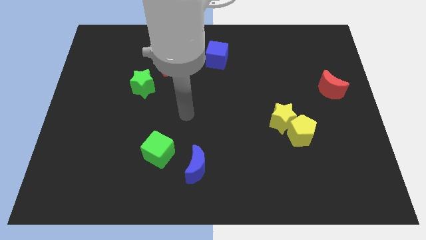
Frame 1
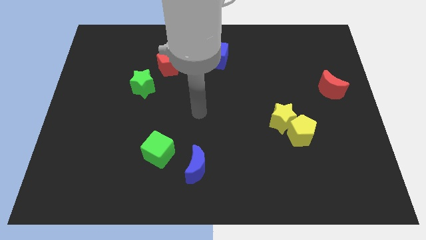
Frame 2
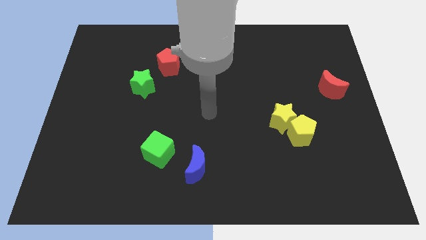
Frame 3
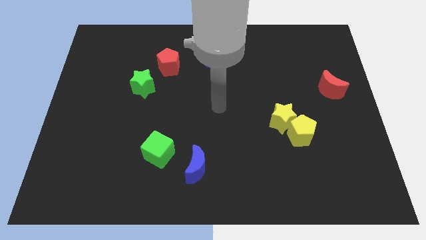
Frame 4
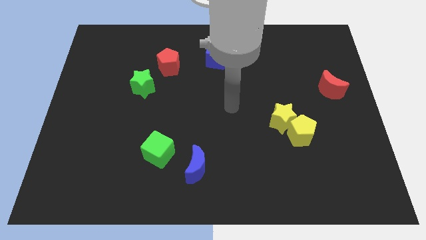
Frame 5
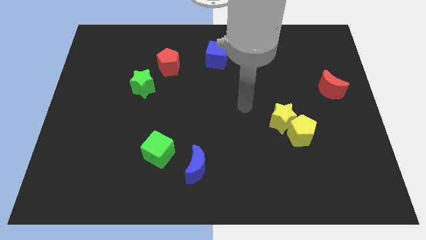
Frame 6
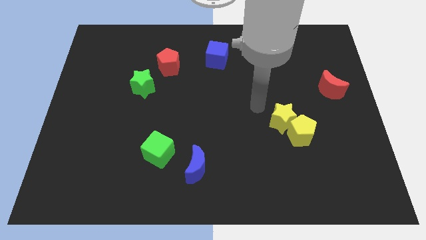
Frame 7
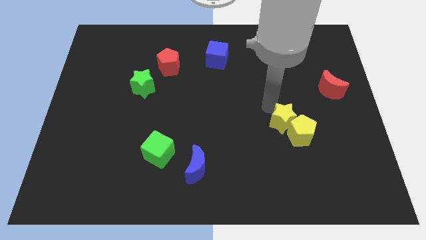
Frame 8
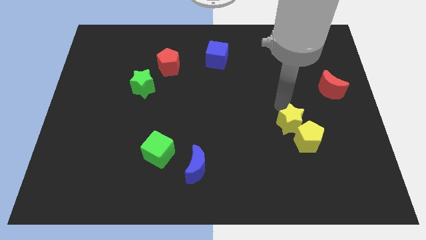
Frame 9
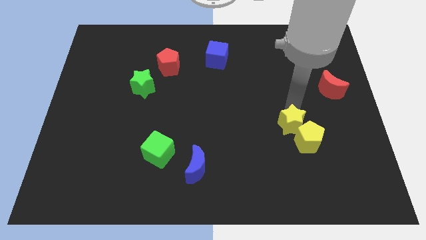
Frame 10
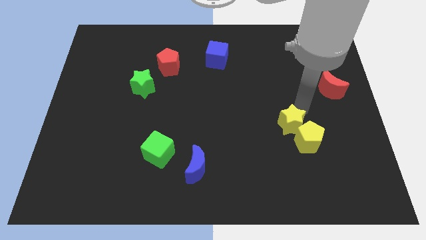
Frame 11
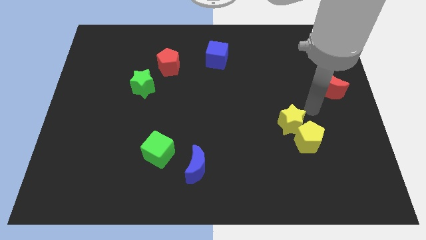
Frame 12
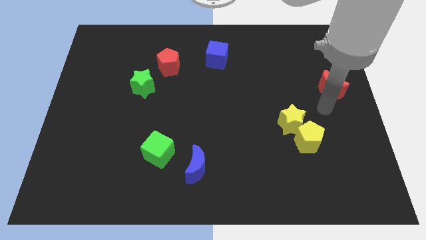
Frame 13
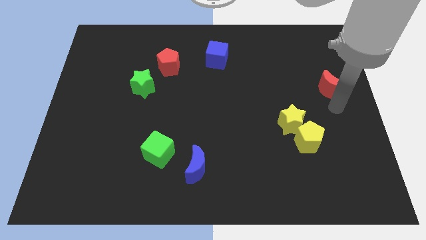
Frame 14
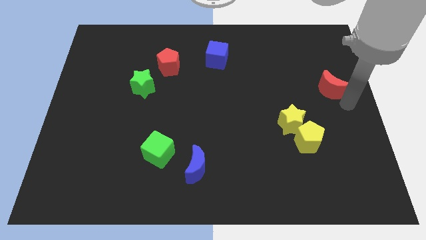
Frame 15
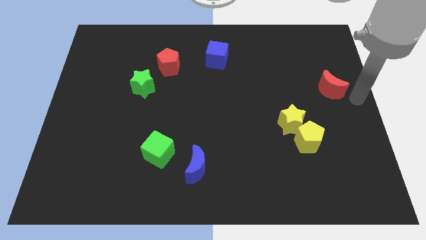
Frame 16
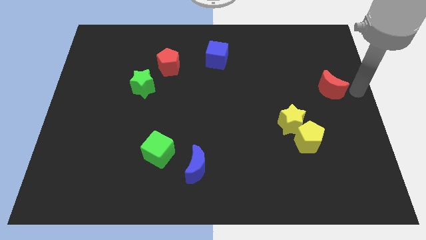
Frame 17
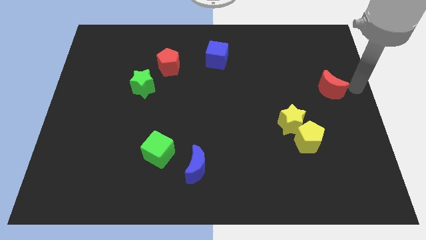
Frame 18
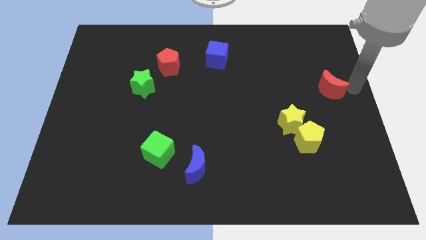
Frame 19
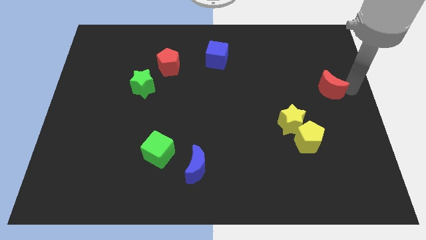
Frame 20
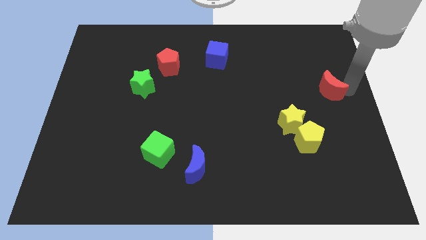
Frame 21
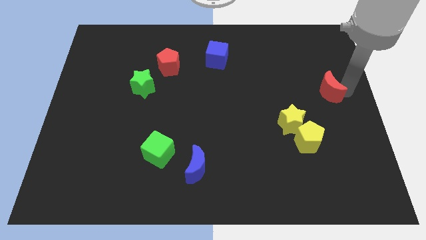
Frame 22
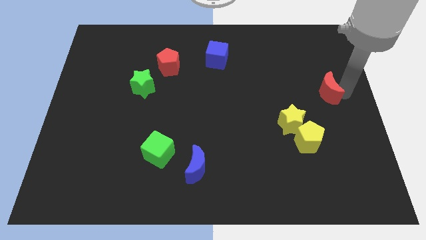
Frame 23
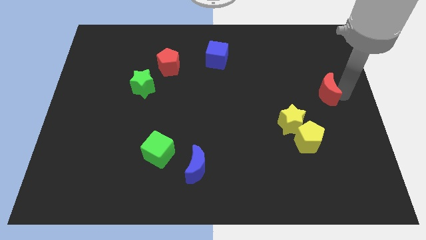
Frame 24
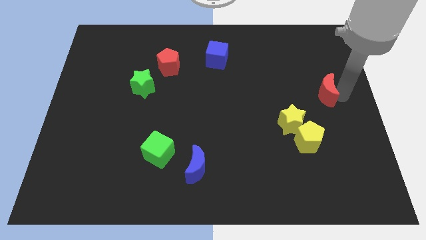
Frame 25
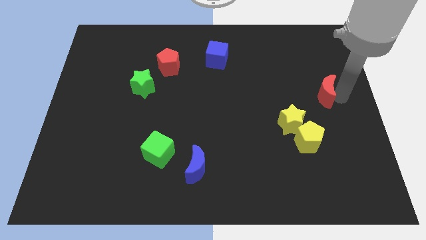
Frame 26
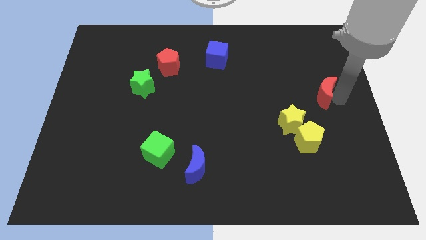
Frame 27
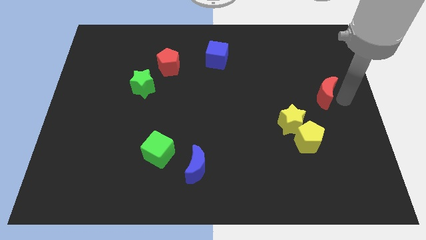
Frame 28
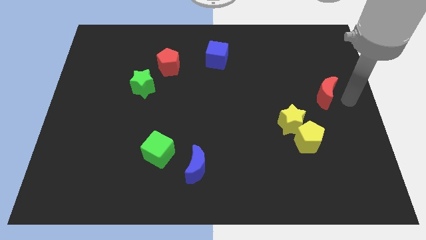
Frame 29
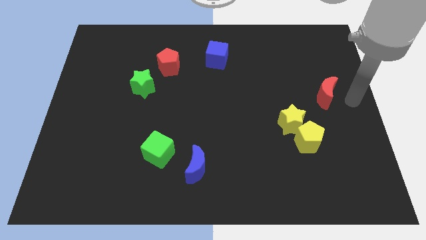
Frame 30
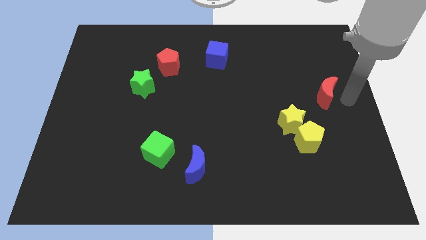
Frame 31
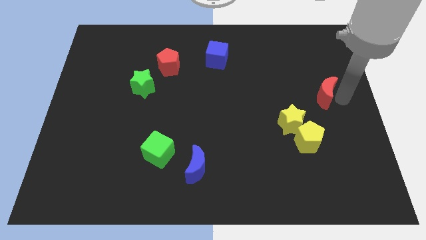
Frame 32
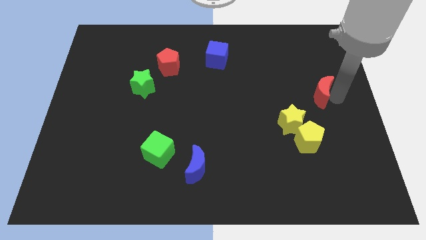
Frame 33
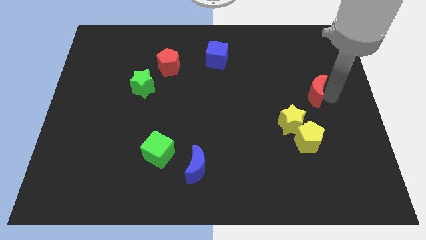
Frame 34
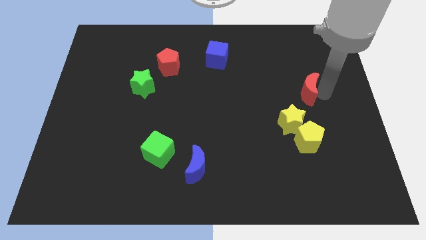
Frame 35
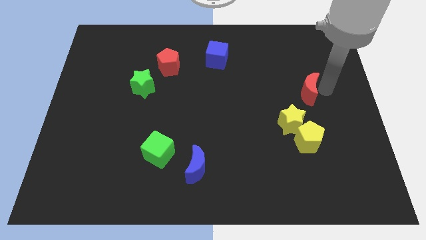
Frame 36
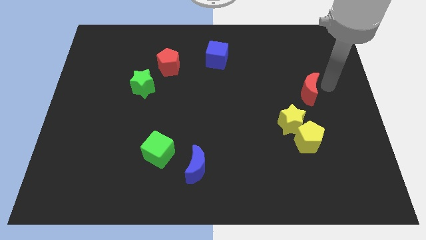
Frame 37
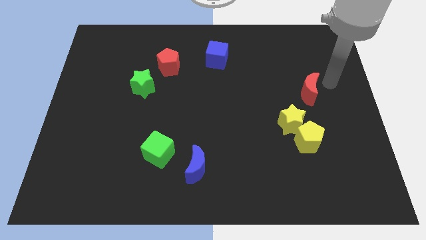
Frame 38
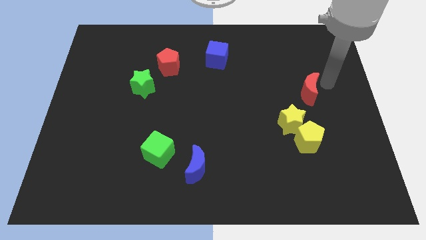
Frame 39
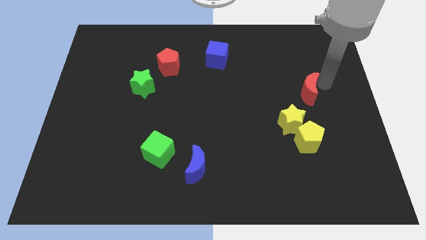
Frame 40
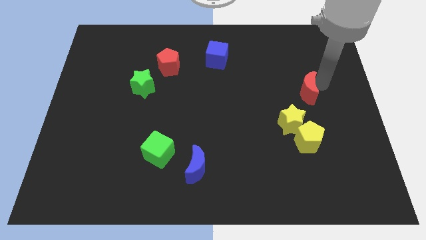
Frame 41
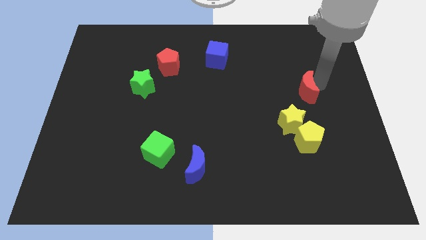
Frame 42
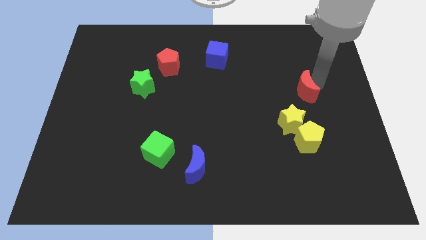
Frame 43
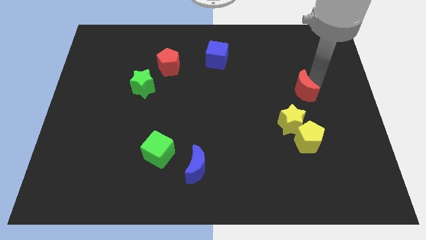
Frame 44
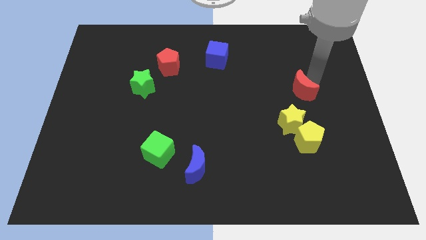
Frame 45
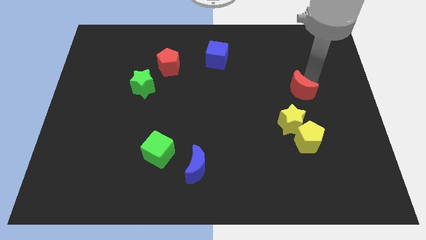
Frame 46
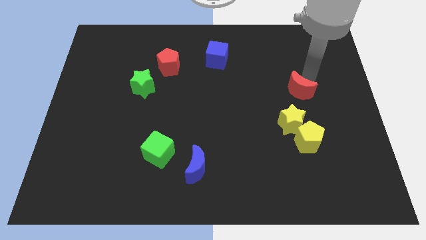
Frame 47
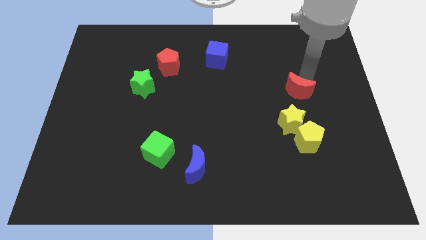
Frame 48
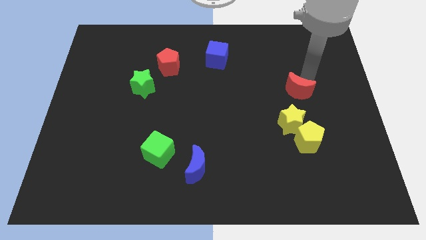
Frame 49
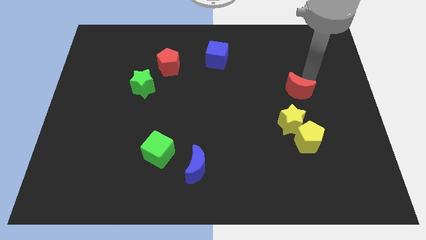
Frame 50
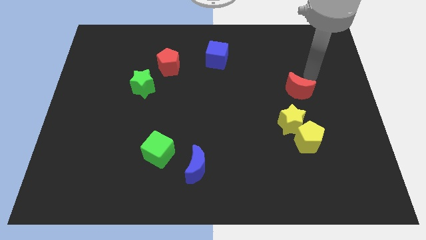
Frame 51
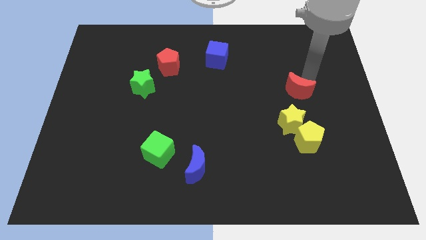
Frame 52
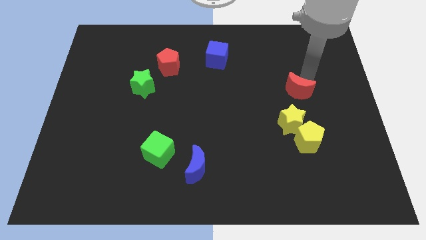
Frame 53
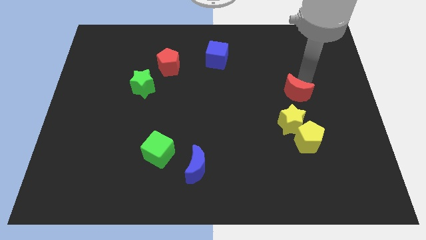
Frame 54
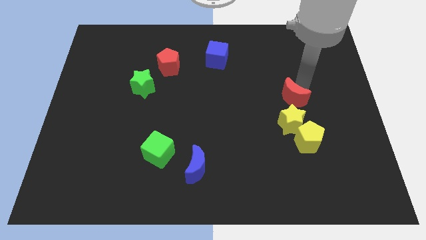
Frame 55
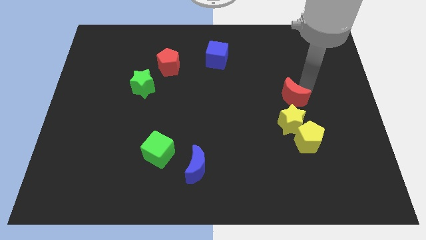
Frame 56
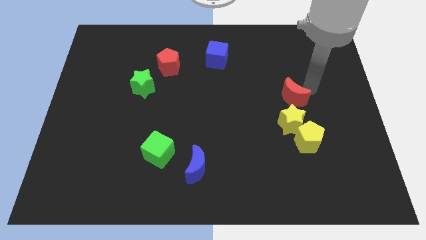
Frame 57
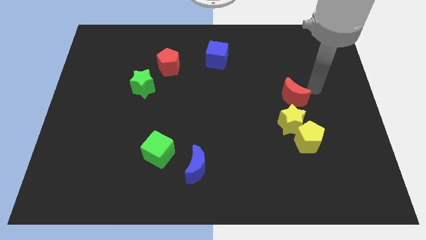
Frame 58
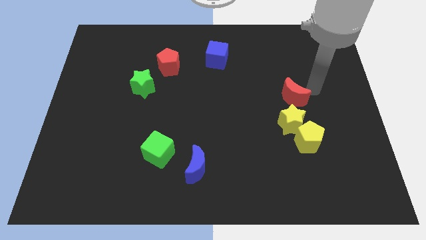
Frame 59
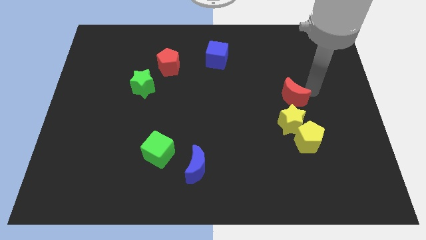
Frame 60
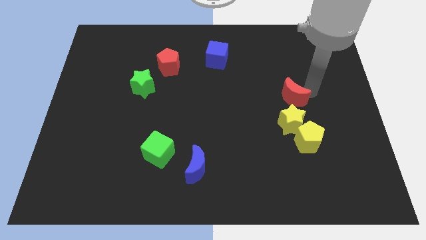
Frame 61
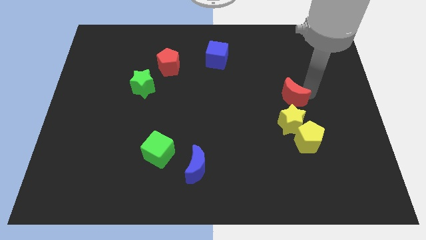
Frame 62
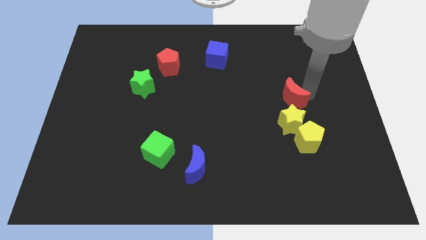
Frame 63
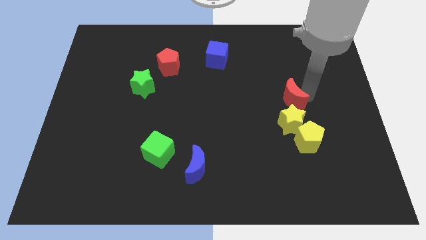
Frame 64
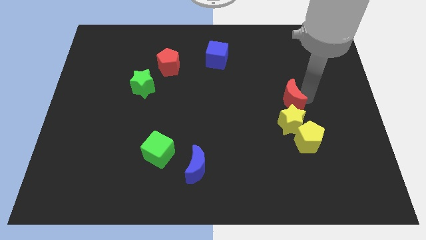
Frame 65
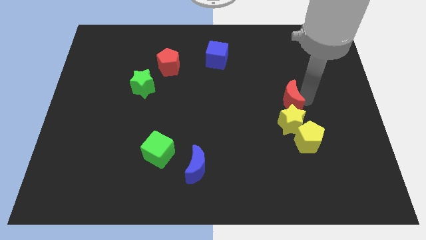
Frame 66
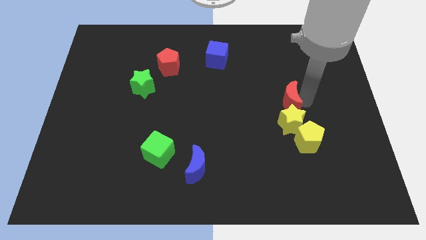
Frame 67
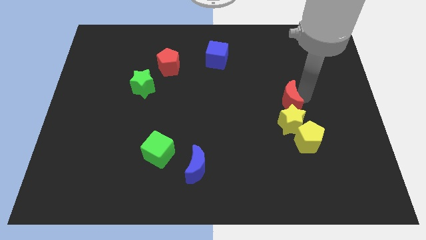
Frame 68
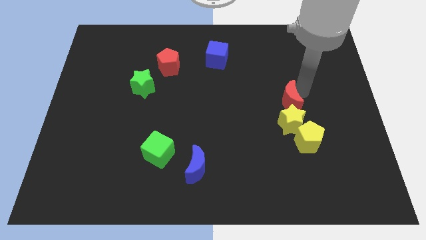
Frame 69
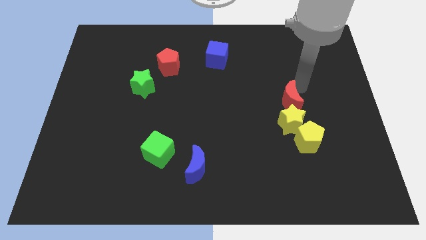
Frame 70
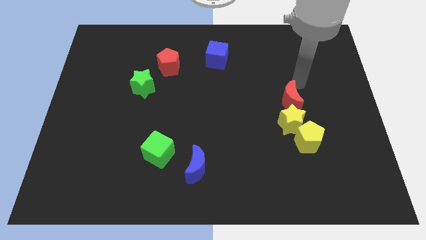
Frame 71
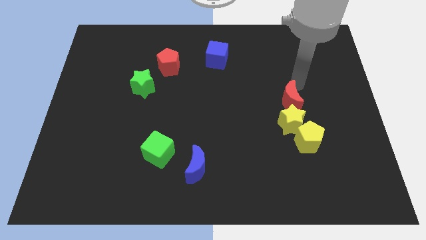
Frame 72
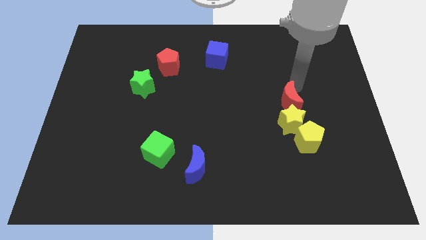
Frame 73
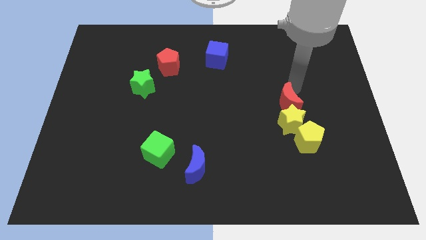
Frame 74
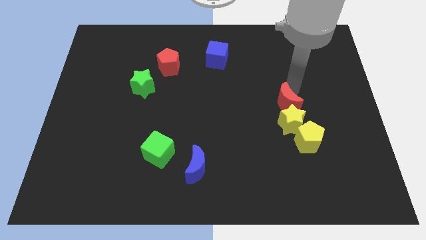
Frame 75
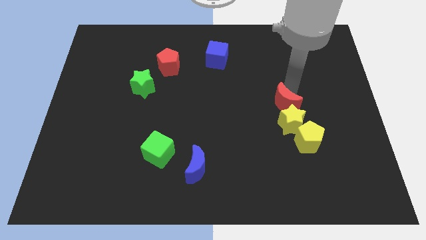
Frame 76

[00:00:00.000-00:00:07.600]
slide the red moon to the top left side of the yellow pentagon
